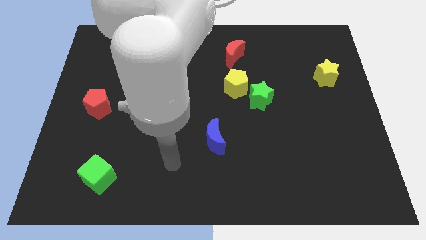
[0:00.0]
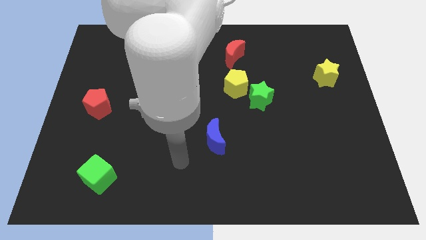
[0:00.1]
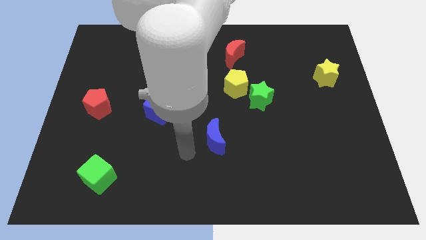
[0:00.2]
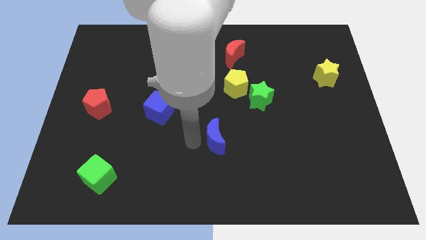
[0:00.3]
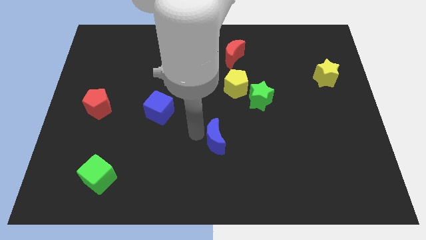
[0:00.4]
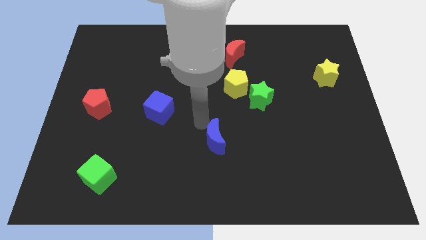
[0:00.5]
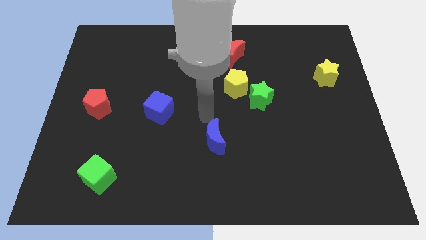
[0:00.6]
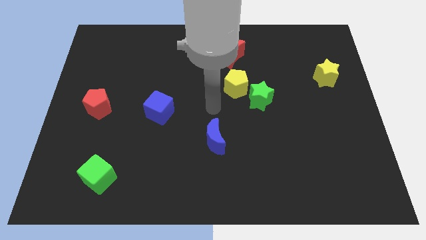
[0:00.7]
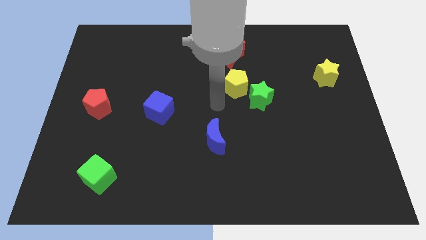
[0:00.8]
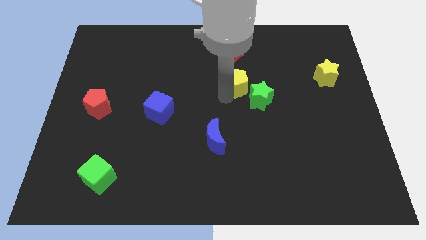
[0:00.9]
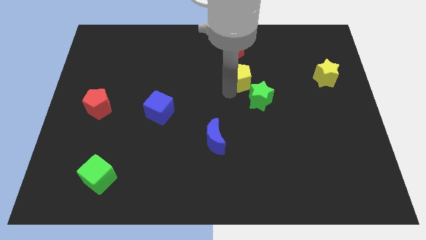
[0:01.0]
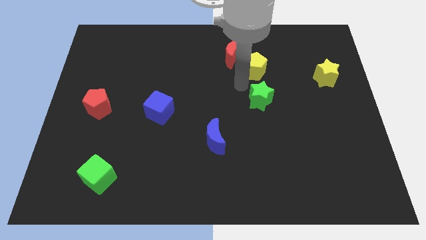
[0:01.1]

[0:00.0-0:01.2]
move the green star away from the yellow pentagon

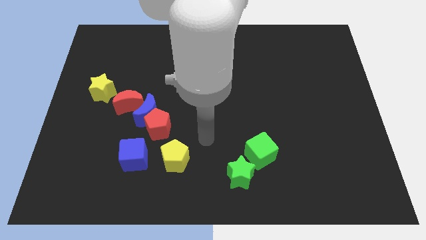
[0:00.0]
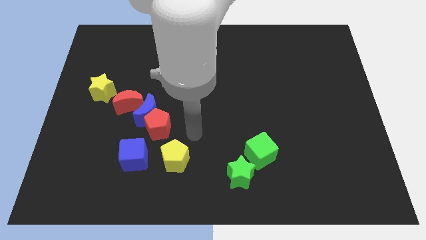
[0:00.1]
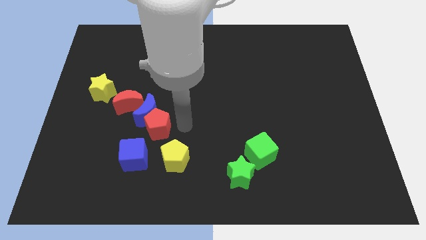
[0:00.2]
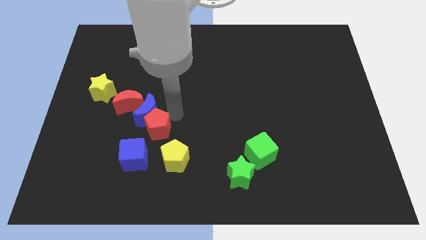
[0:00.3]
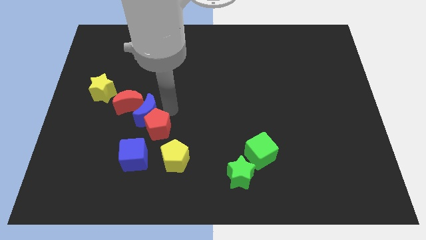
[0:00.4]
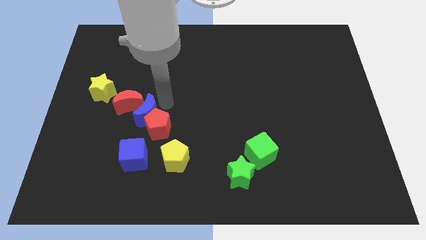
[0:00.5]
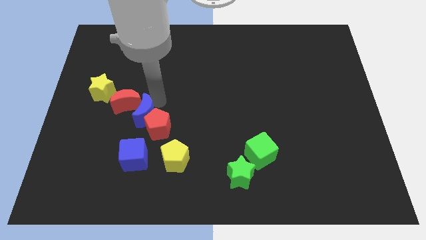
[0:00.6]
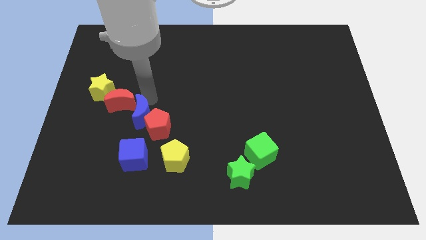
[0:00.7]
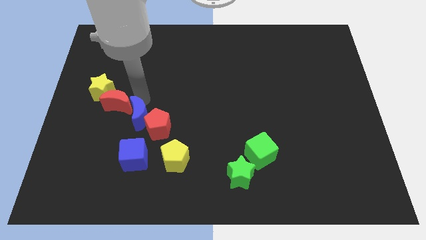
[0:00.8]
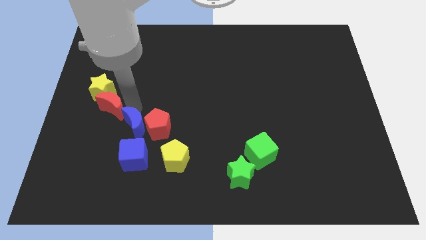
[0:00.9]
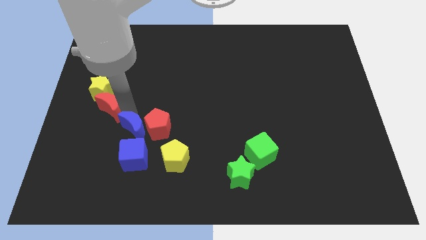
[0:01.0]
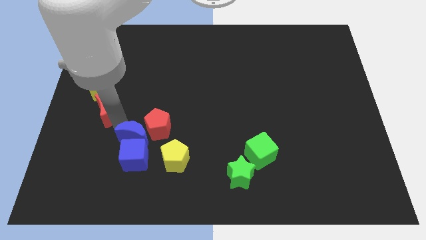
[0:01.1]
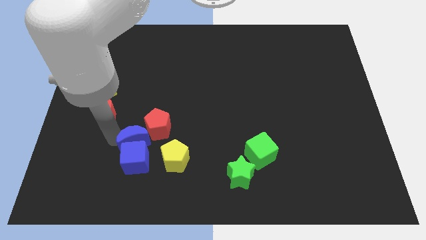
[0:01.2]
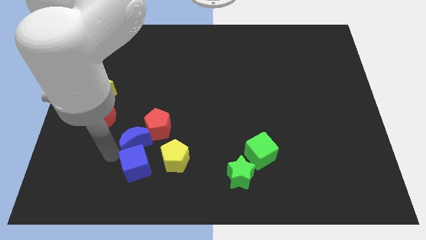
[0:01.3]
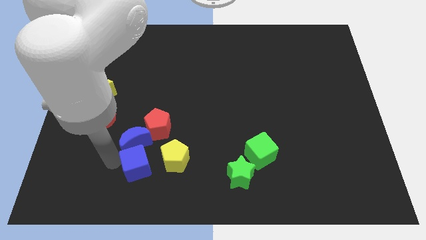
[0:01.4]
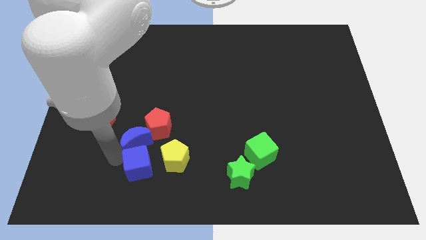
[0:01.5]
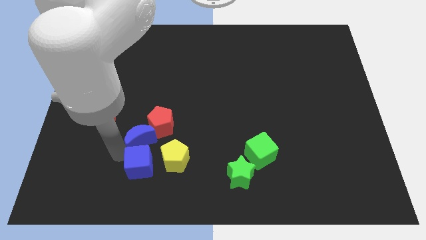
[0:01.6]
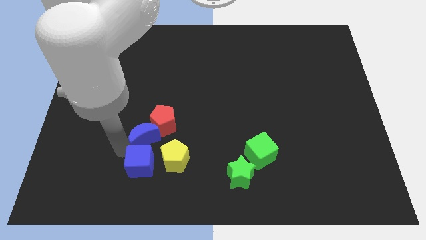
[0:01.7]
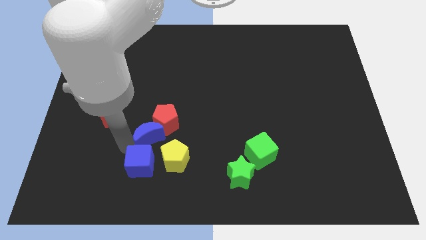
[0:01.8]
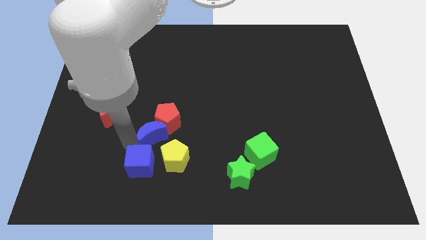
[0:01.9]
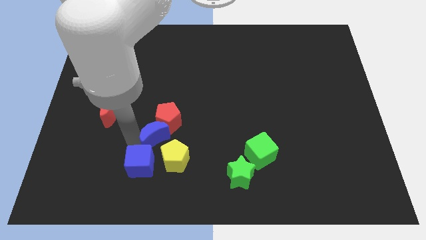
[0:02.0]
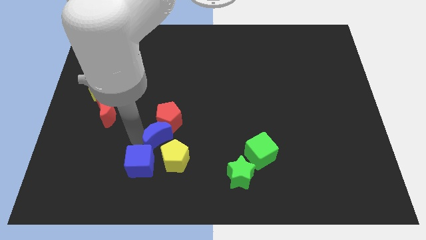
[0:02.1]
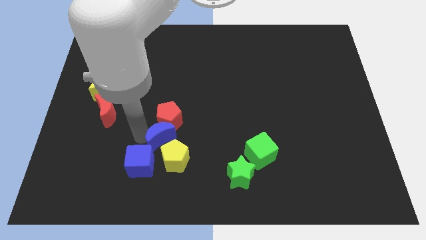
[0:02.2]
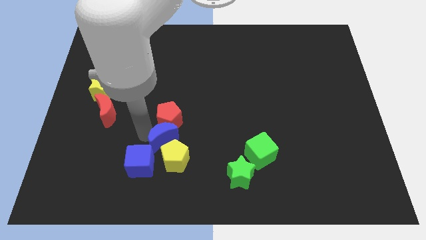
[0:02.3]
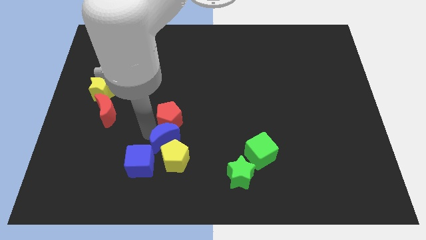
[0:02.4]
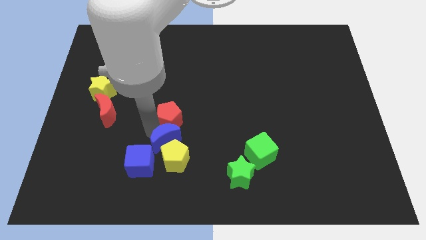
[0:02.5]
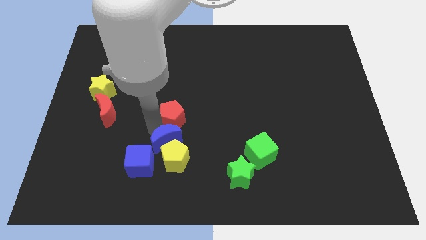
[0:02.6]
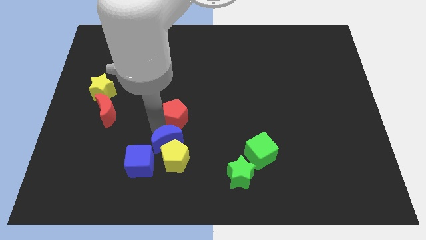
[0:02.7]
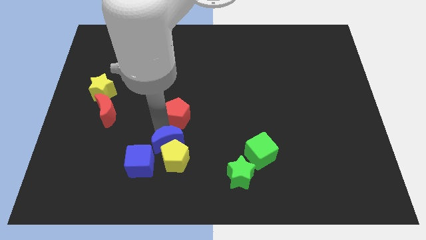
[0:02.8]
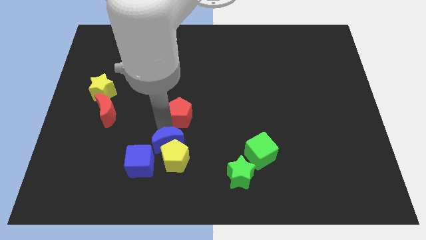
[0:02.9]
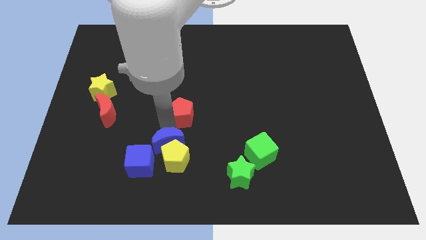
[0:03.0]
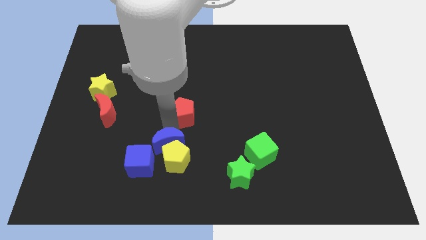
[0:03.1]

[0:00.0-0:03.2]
separate the blue moon from the red pentagon and red moon

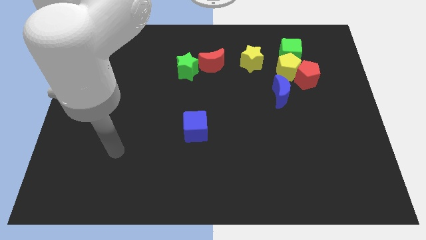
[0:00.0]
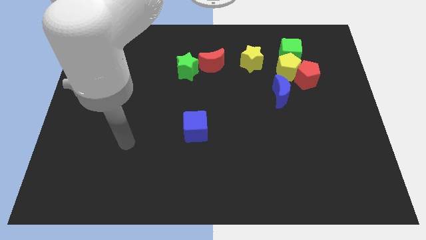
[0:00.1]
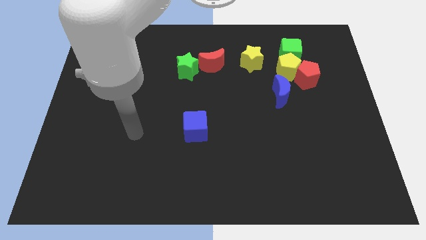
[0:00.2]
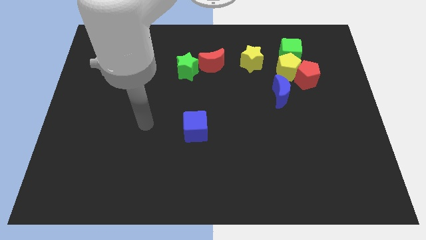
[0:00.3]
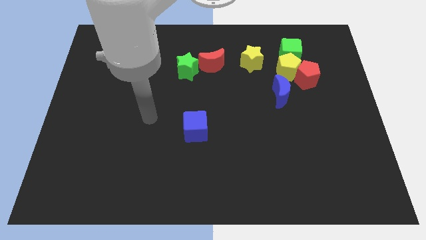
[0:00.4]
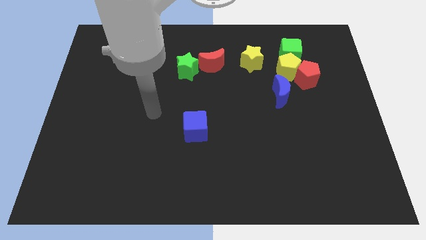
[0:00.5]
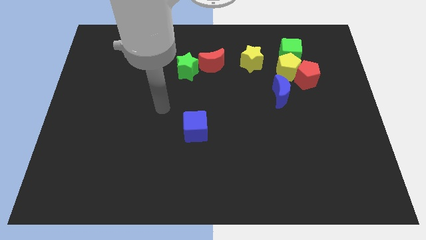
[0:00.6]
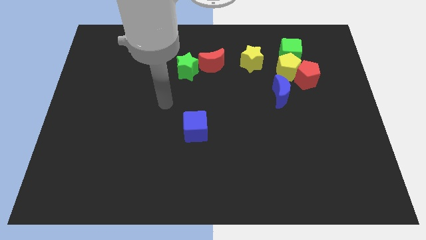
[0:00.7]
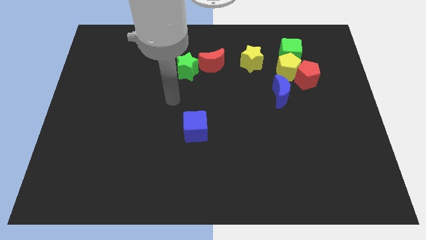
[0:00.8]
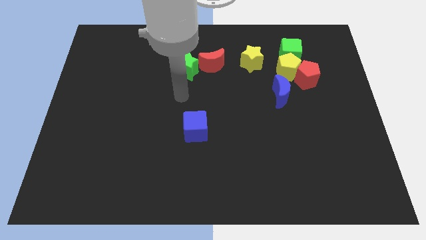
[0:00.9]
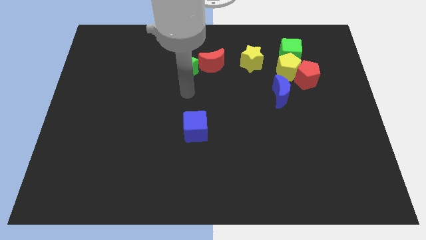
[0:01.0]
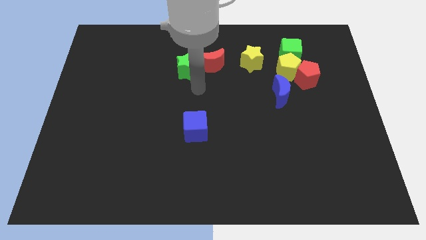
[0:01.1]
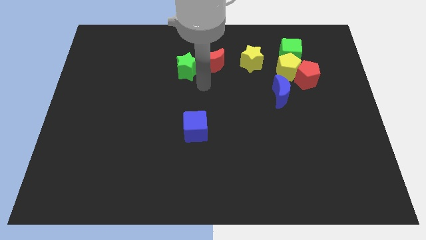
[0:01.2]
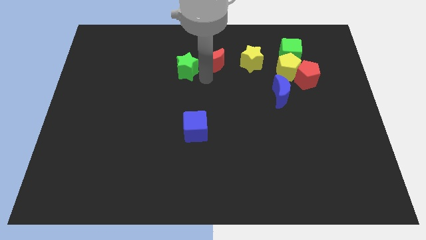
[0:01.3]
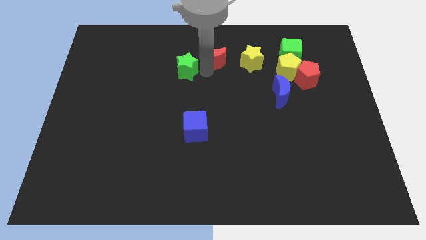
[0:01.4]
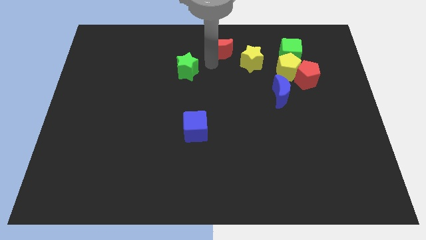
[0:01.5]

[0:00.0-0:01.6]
move the green star away from the red moon

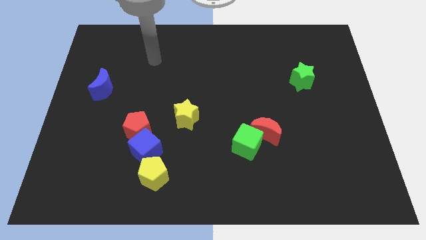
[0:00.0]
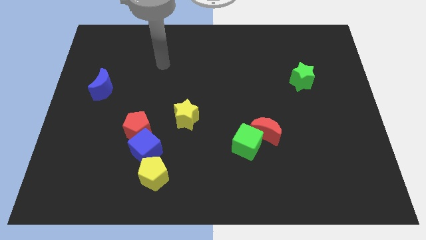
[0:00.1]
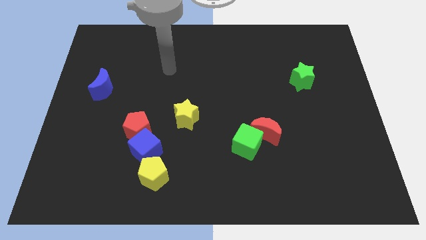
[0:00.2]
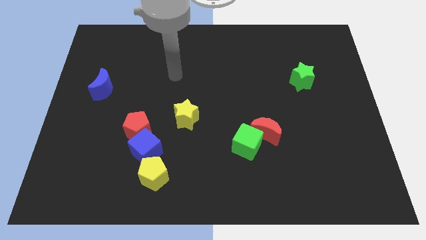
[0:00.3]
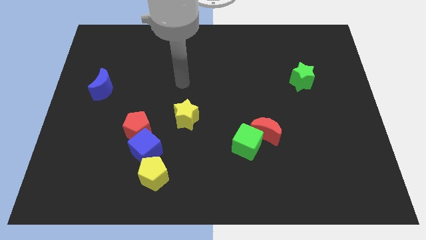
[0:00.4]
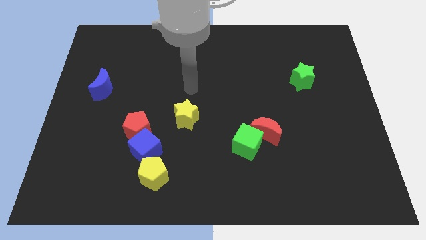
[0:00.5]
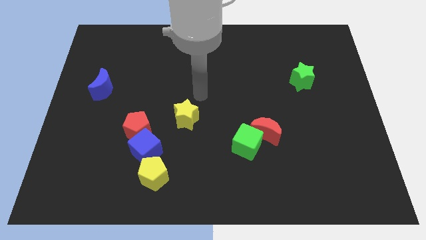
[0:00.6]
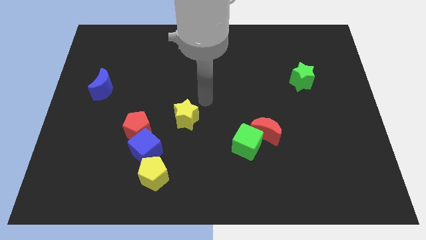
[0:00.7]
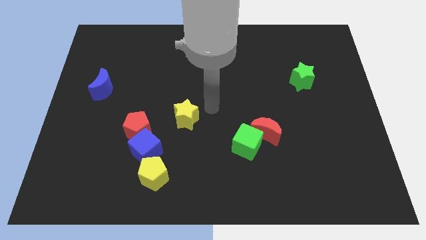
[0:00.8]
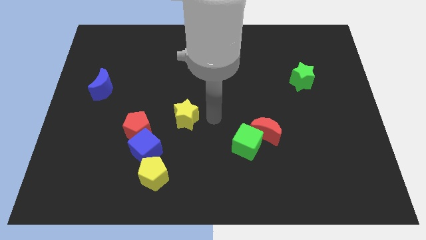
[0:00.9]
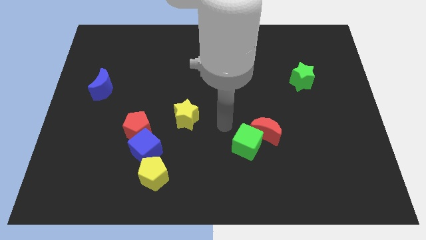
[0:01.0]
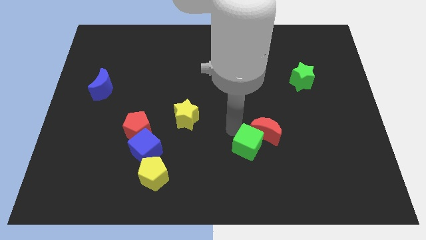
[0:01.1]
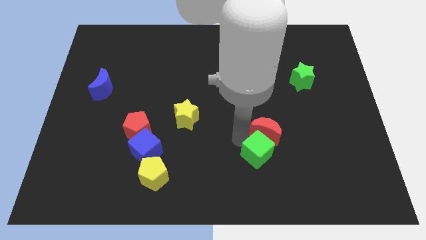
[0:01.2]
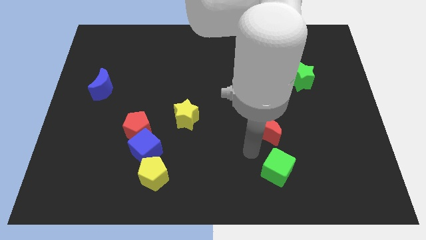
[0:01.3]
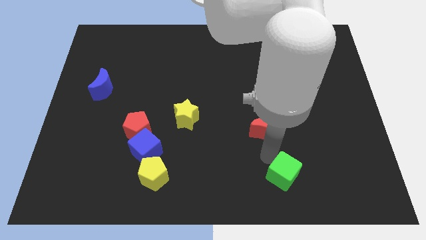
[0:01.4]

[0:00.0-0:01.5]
separate the red moon from the green cube

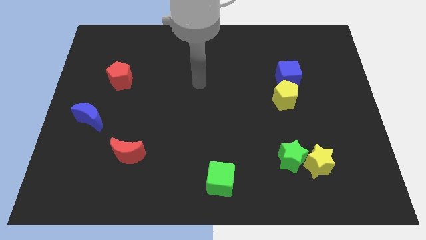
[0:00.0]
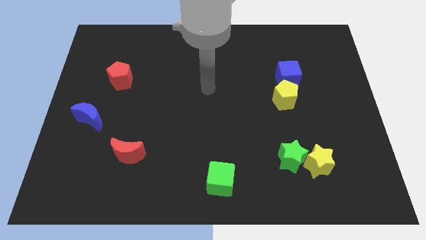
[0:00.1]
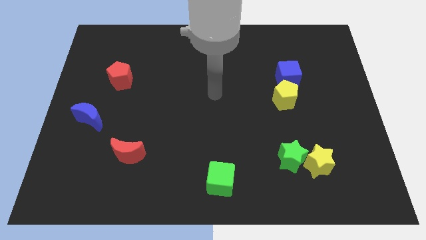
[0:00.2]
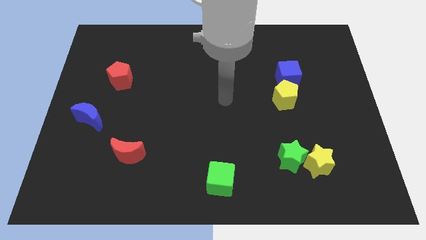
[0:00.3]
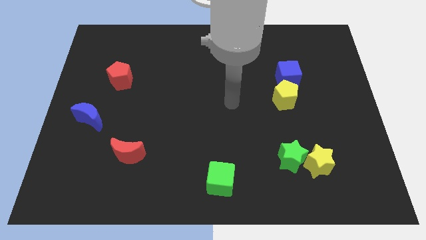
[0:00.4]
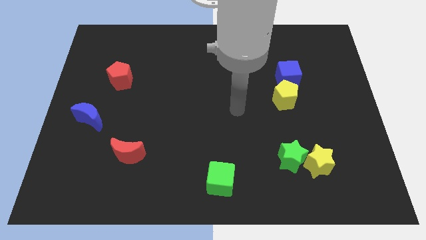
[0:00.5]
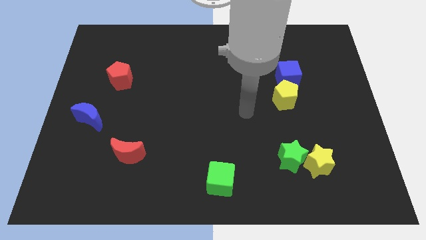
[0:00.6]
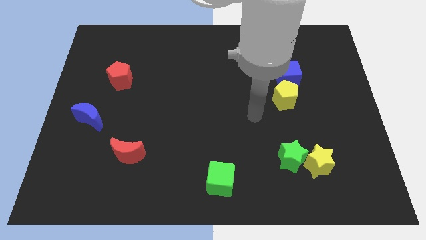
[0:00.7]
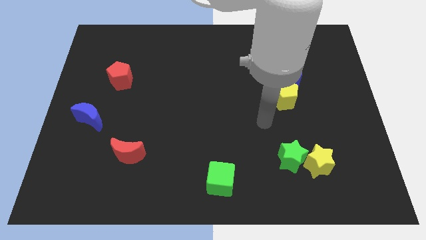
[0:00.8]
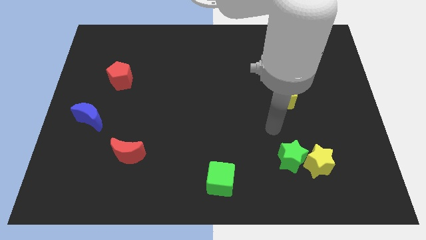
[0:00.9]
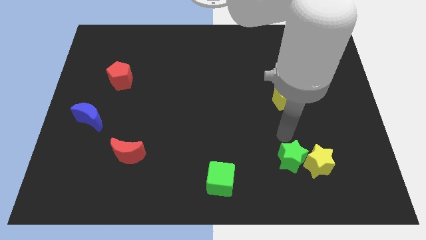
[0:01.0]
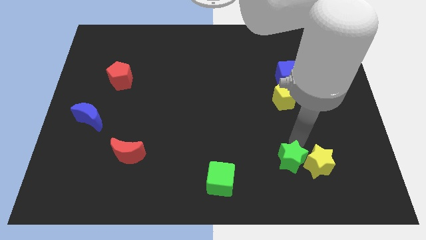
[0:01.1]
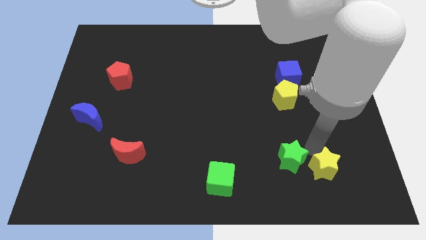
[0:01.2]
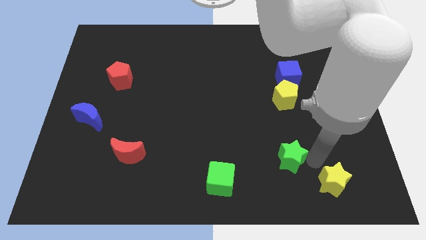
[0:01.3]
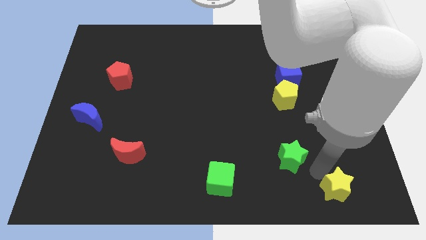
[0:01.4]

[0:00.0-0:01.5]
move the green star away from the yellow star

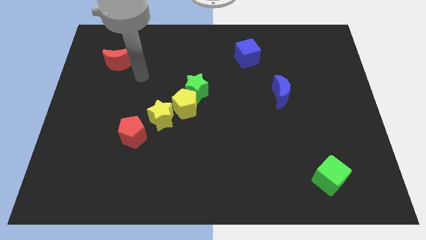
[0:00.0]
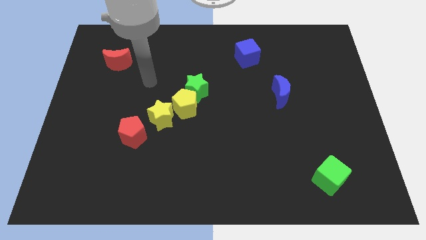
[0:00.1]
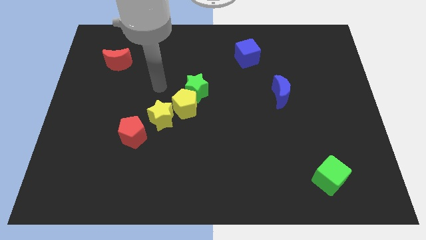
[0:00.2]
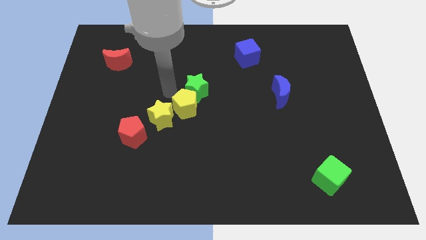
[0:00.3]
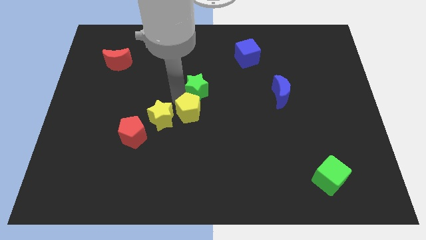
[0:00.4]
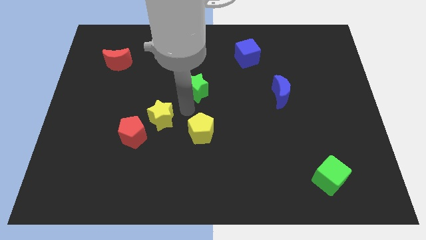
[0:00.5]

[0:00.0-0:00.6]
pull the green star apart from the yellow pentagon
